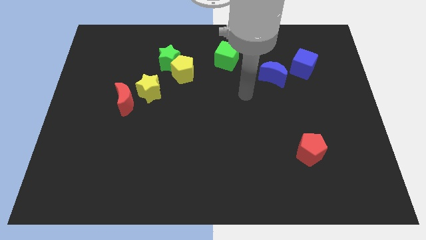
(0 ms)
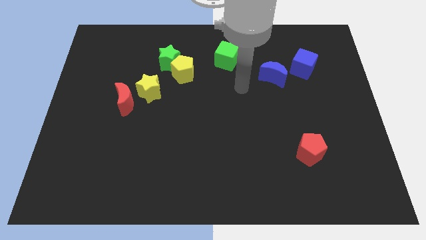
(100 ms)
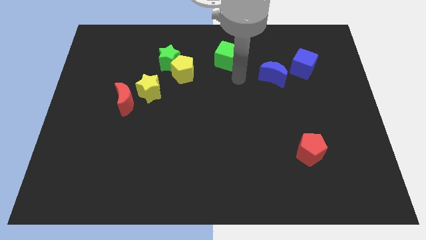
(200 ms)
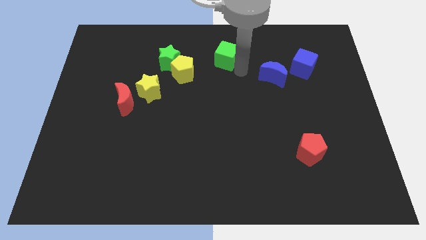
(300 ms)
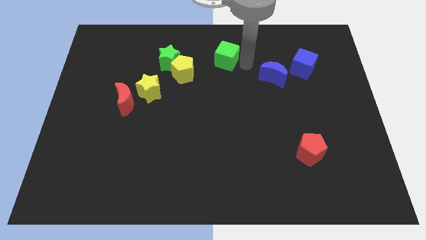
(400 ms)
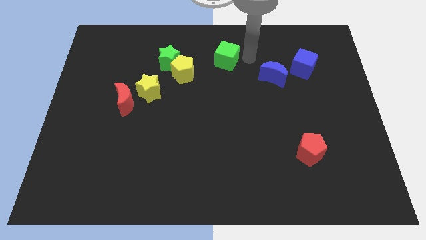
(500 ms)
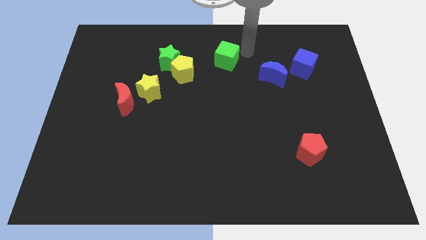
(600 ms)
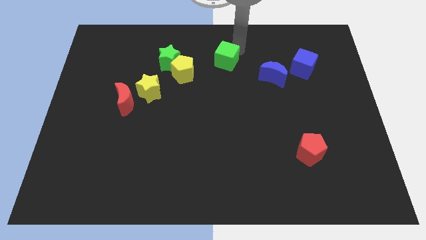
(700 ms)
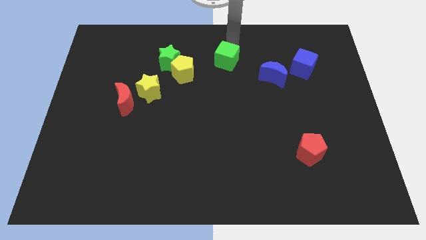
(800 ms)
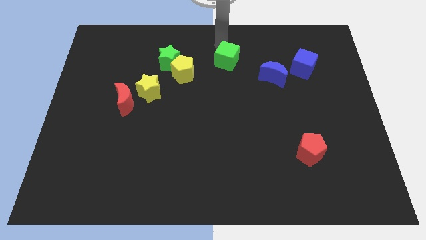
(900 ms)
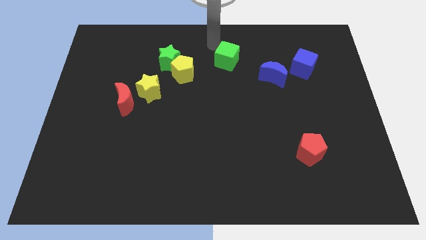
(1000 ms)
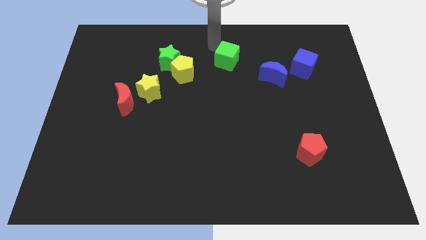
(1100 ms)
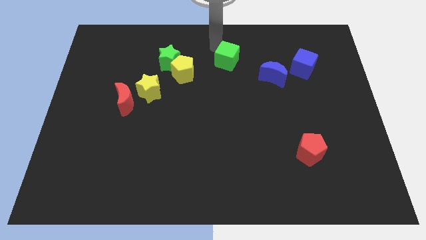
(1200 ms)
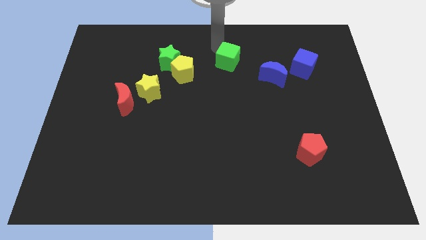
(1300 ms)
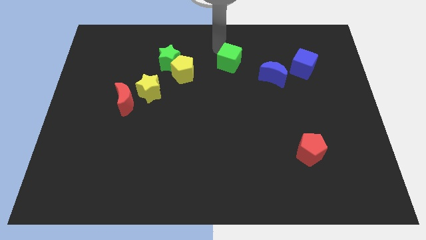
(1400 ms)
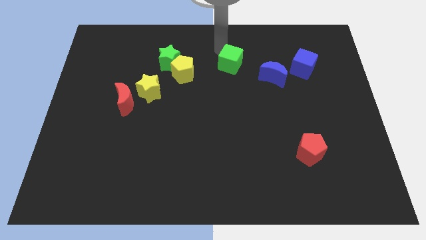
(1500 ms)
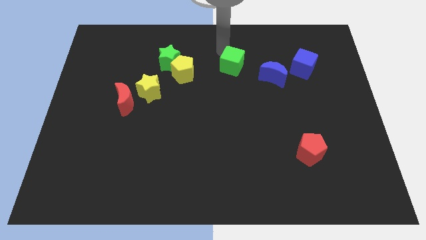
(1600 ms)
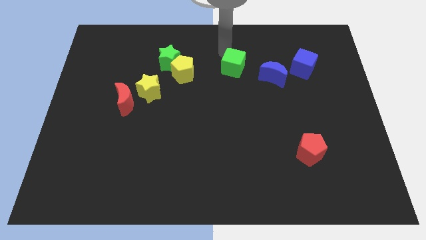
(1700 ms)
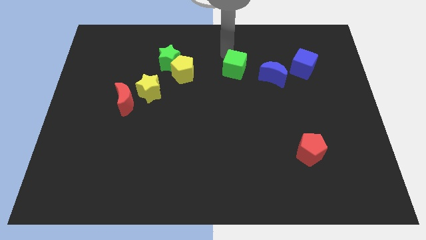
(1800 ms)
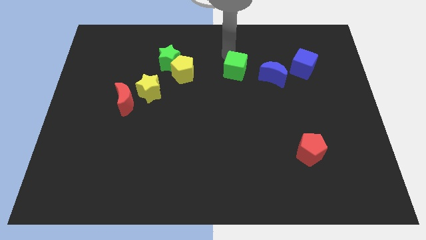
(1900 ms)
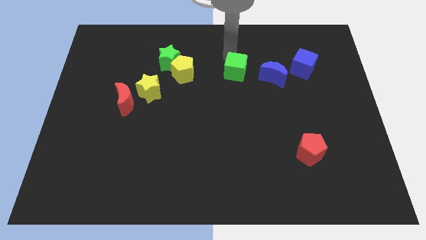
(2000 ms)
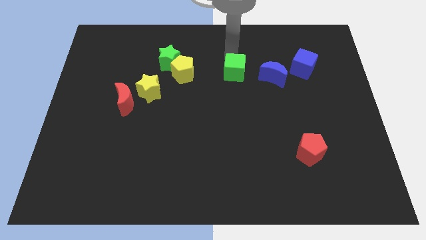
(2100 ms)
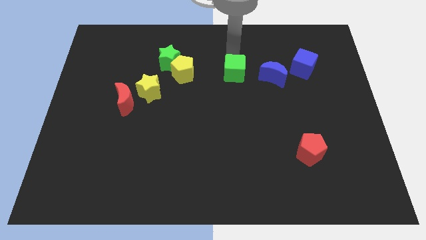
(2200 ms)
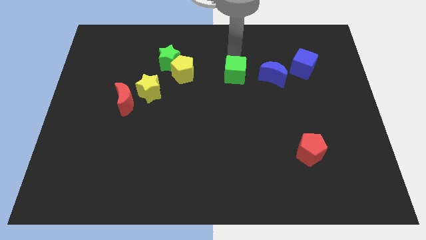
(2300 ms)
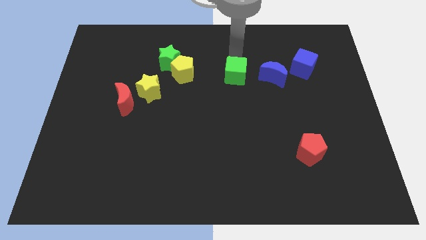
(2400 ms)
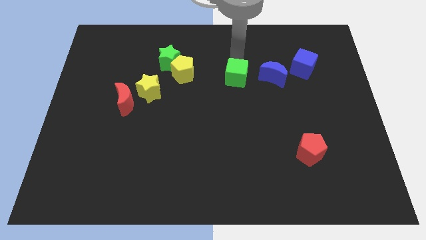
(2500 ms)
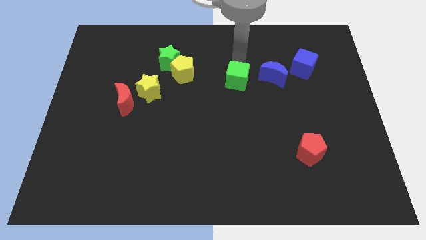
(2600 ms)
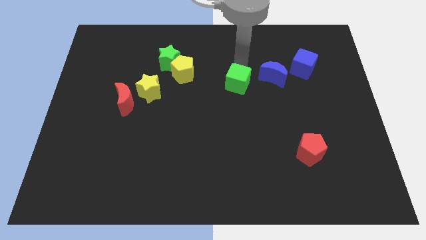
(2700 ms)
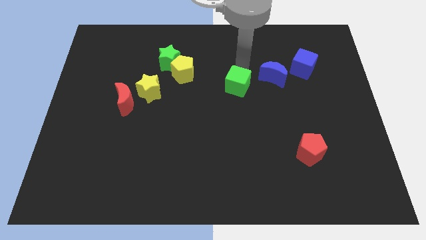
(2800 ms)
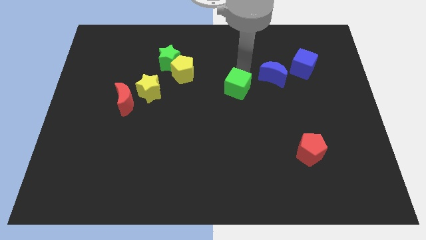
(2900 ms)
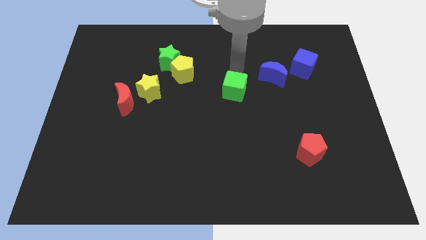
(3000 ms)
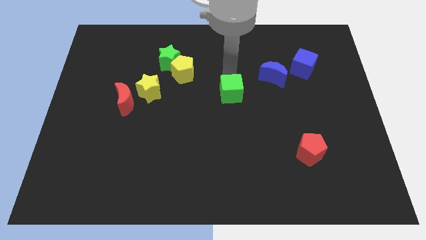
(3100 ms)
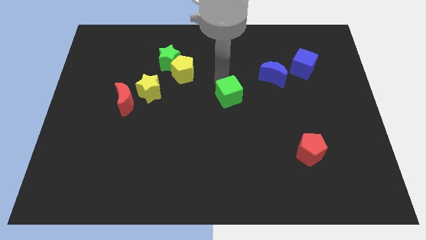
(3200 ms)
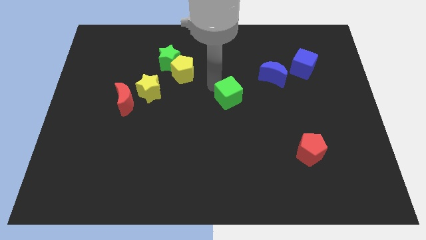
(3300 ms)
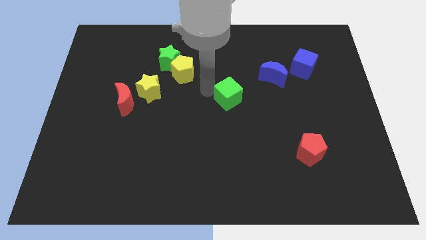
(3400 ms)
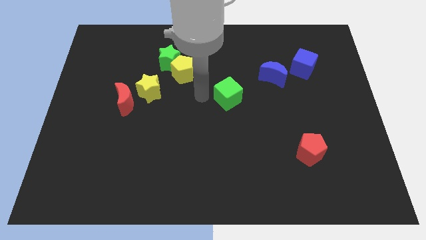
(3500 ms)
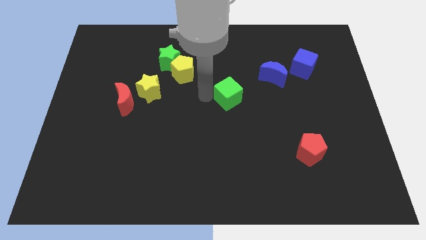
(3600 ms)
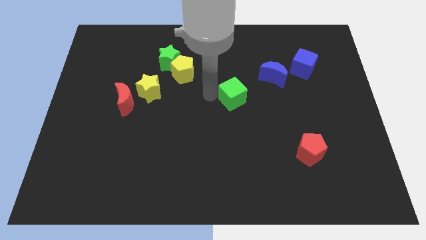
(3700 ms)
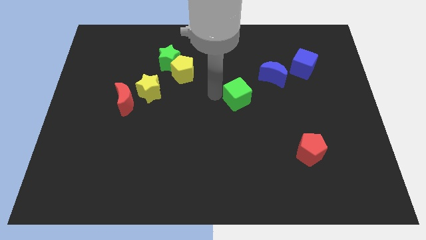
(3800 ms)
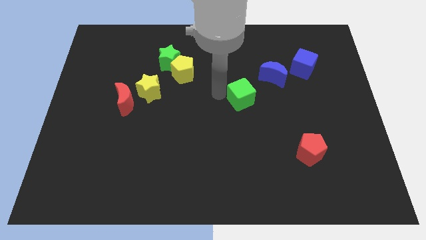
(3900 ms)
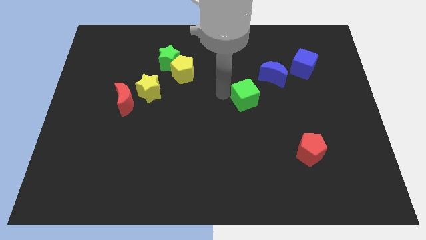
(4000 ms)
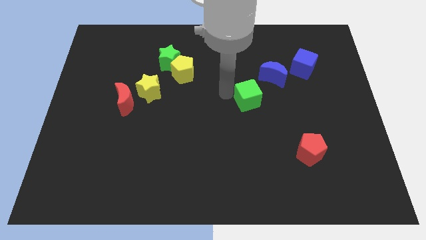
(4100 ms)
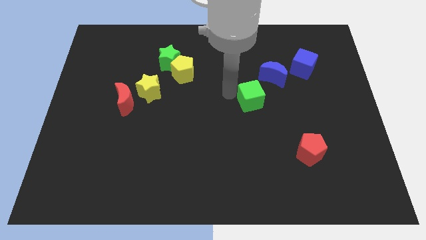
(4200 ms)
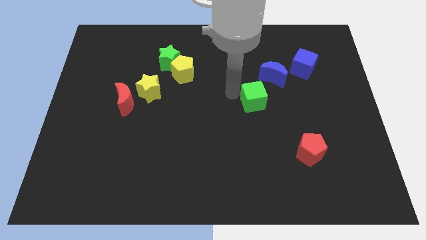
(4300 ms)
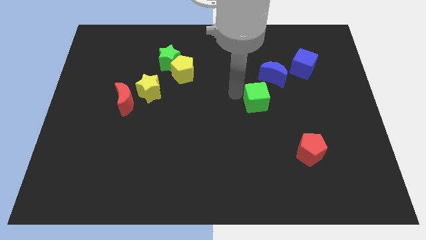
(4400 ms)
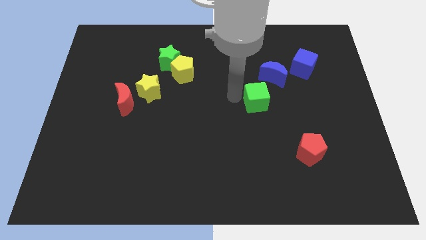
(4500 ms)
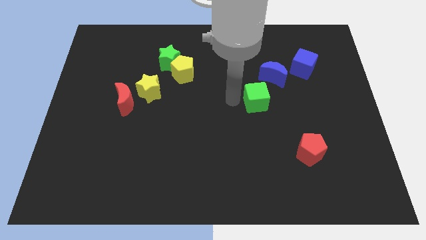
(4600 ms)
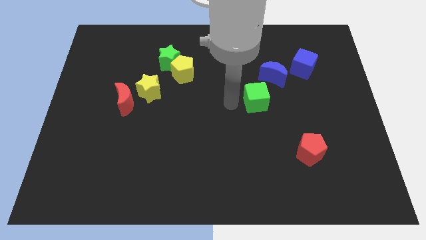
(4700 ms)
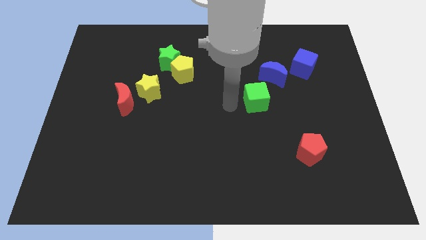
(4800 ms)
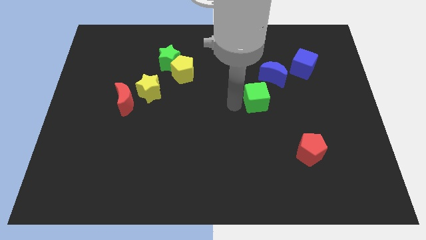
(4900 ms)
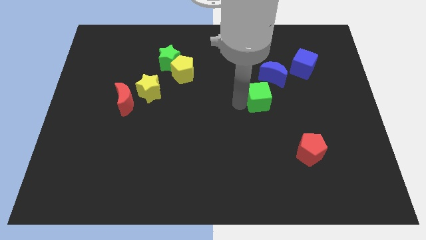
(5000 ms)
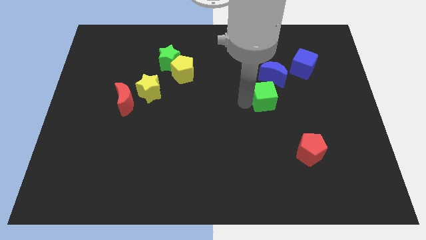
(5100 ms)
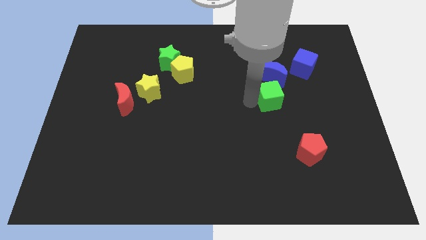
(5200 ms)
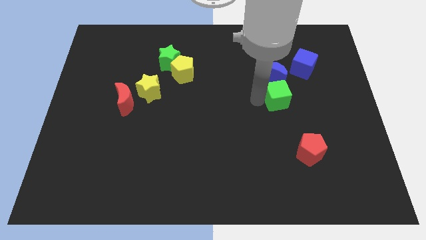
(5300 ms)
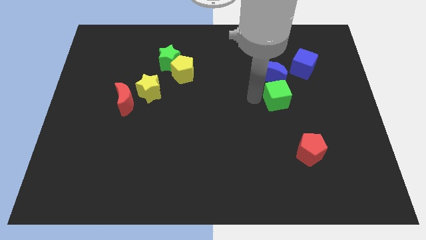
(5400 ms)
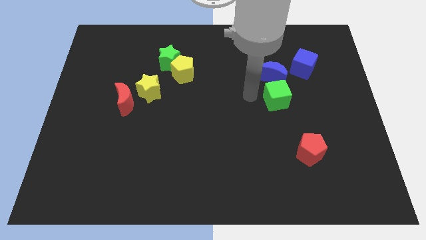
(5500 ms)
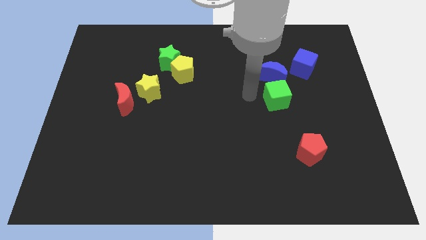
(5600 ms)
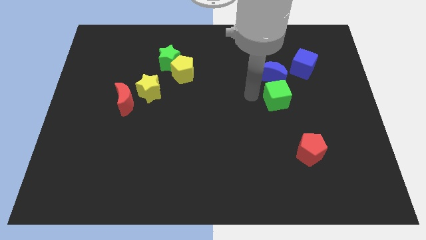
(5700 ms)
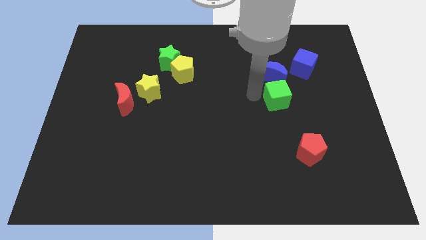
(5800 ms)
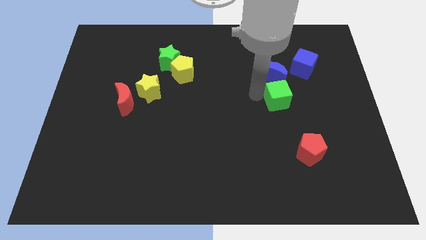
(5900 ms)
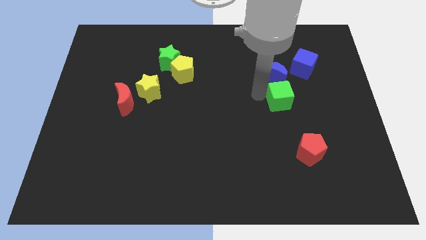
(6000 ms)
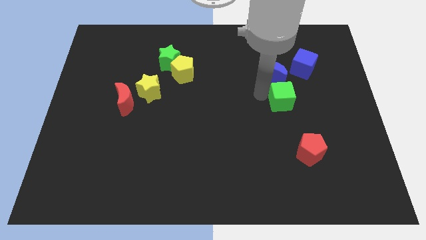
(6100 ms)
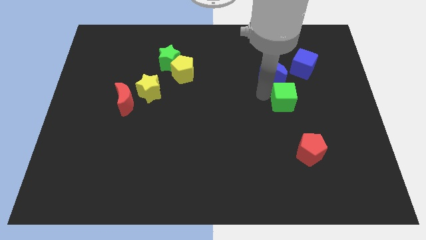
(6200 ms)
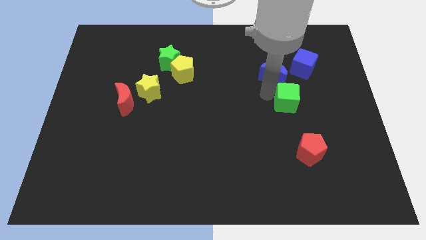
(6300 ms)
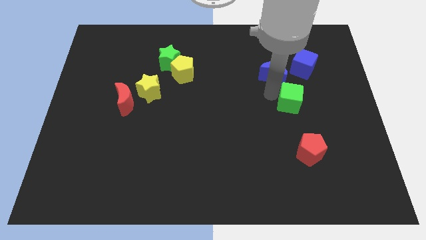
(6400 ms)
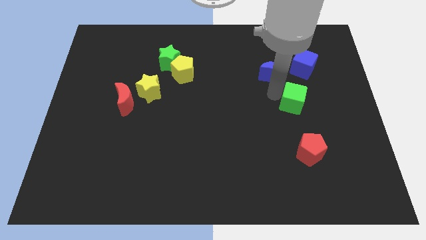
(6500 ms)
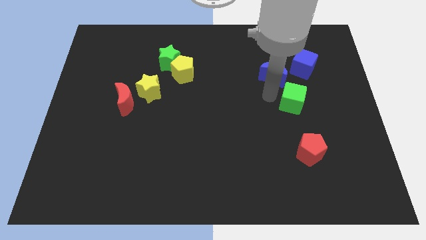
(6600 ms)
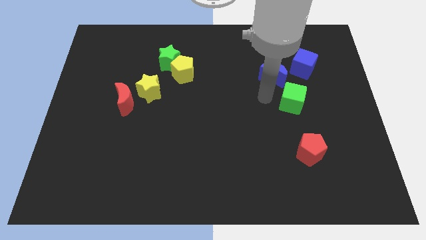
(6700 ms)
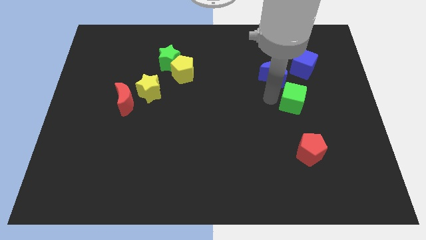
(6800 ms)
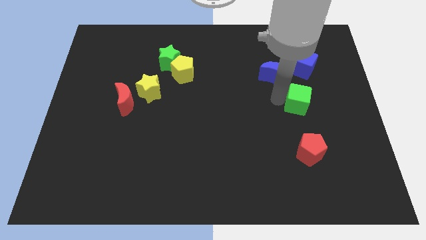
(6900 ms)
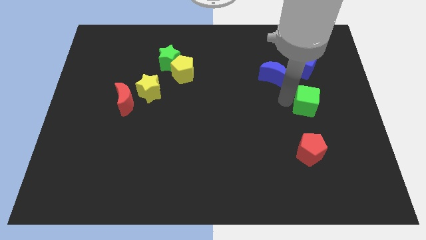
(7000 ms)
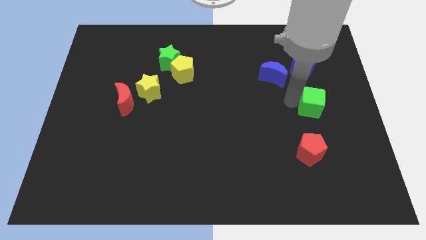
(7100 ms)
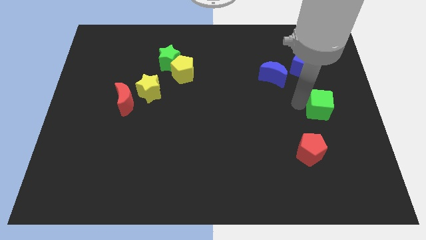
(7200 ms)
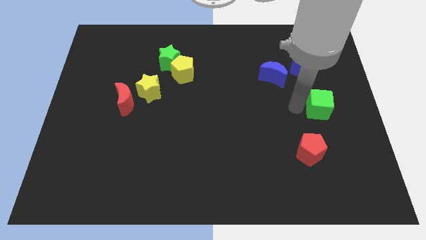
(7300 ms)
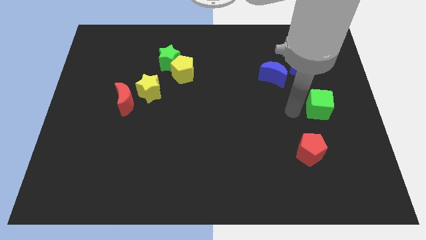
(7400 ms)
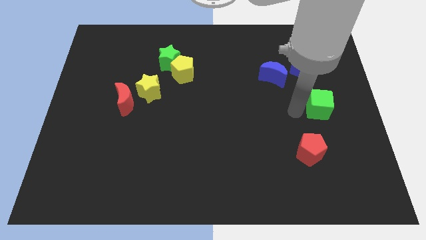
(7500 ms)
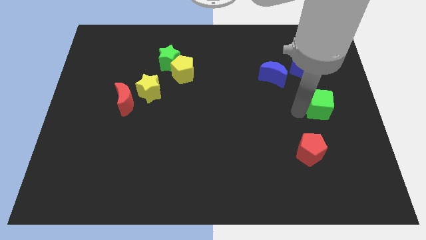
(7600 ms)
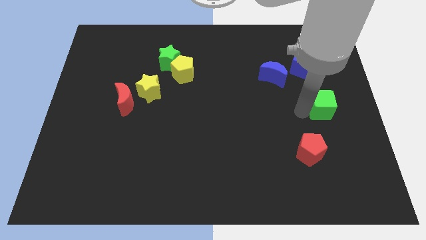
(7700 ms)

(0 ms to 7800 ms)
slide the green cube to the right side of the board
